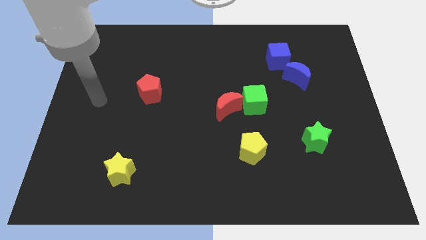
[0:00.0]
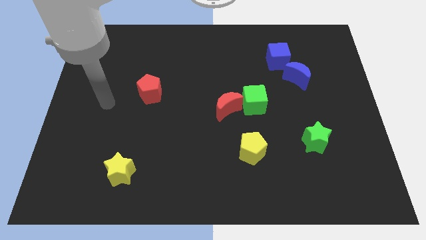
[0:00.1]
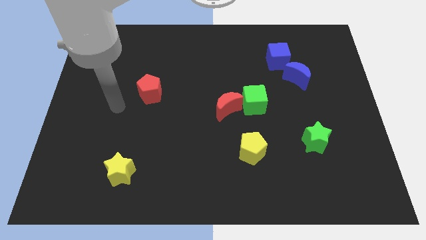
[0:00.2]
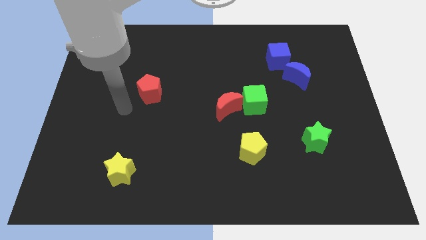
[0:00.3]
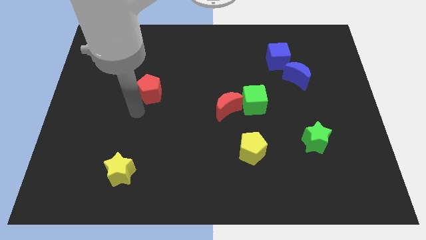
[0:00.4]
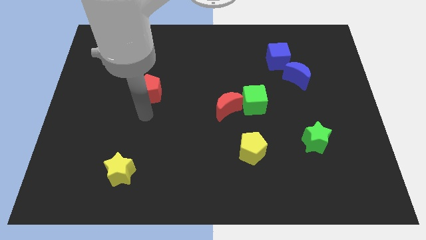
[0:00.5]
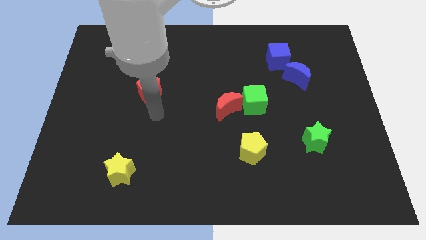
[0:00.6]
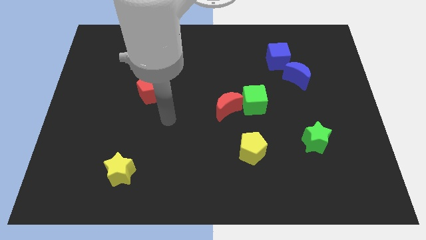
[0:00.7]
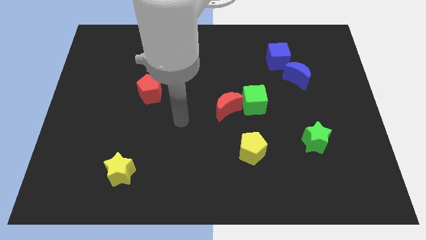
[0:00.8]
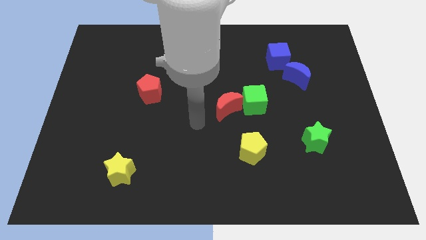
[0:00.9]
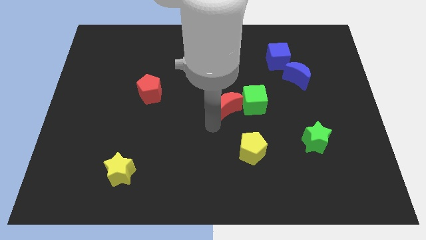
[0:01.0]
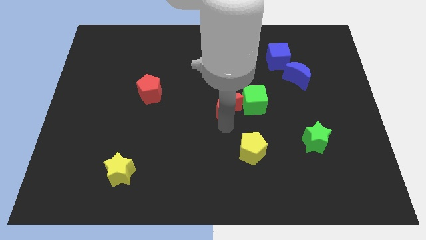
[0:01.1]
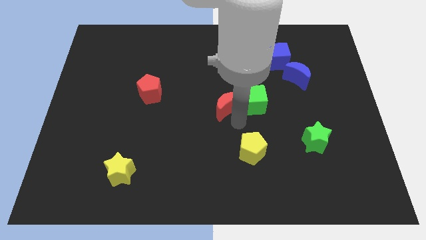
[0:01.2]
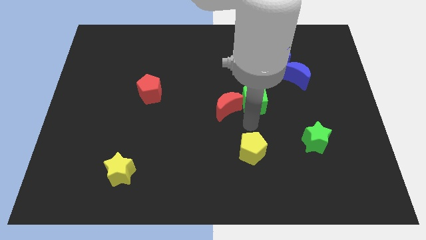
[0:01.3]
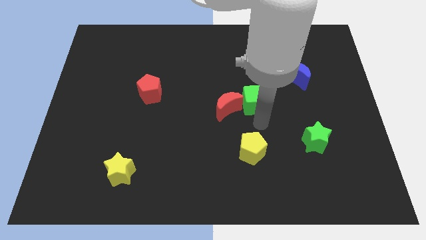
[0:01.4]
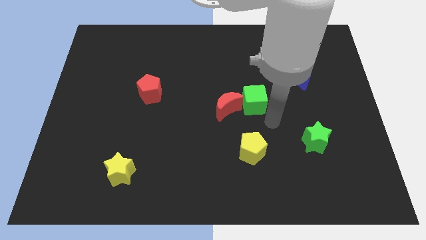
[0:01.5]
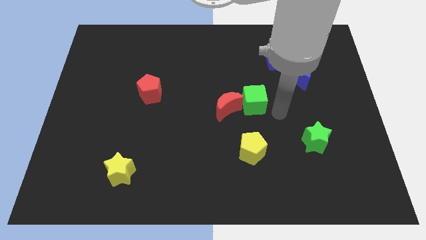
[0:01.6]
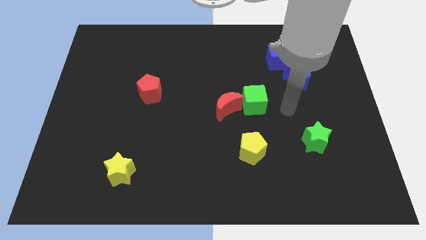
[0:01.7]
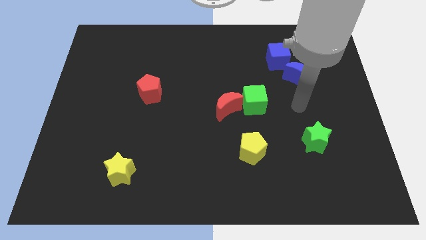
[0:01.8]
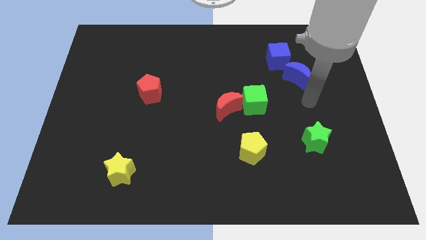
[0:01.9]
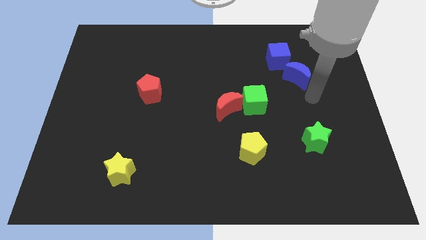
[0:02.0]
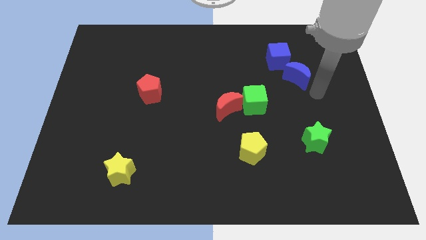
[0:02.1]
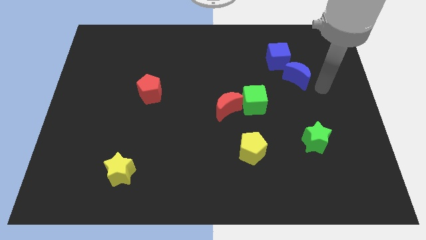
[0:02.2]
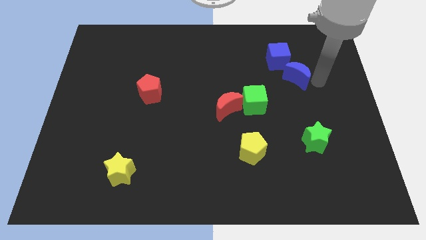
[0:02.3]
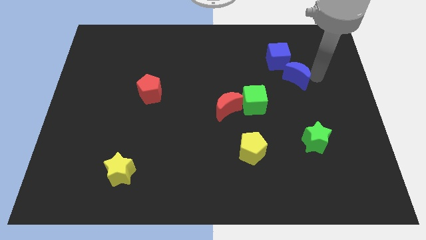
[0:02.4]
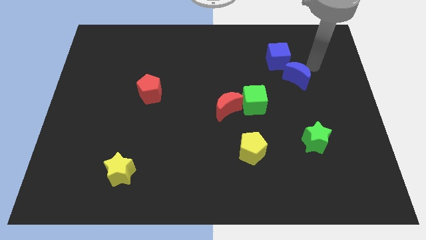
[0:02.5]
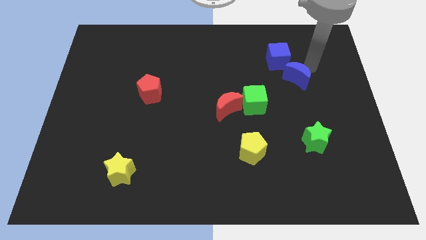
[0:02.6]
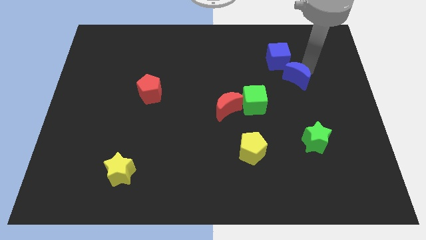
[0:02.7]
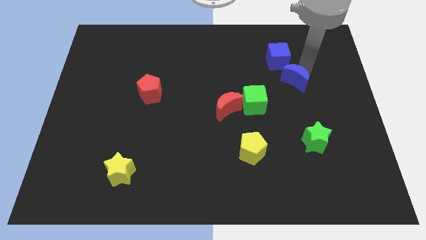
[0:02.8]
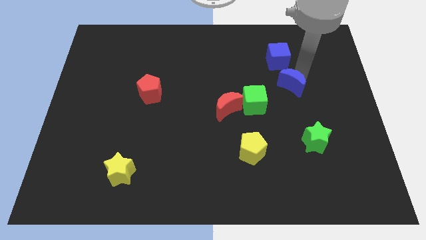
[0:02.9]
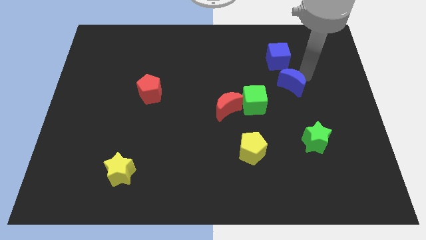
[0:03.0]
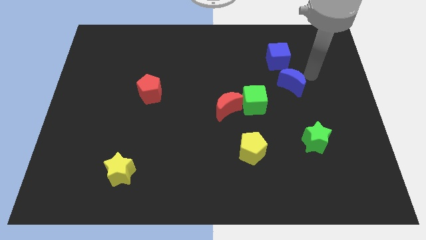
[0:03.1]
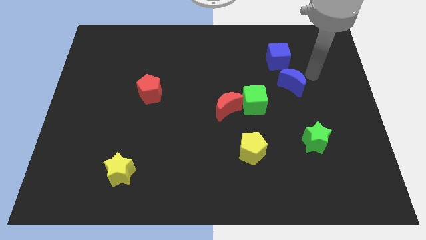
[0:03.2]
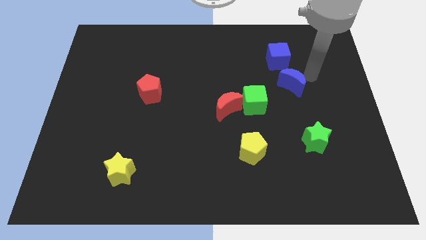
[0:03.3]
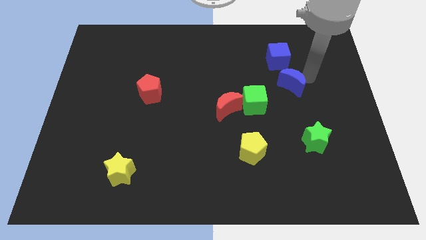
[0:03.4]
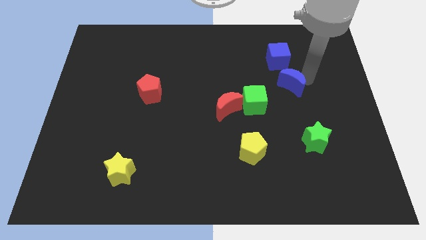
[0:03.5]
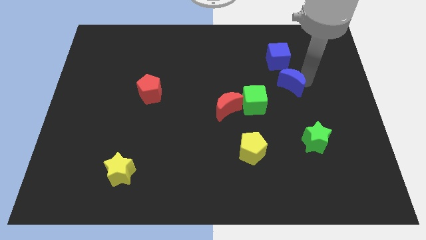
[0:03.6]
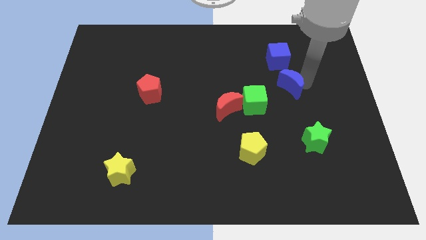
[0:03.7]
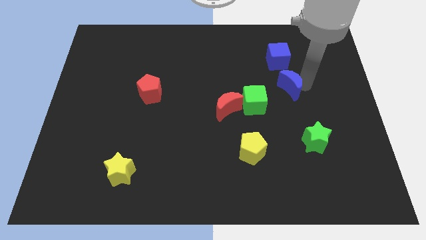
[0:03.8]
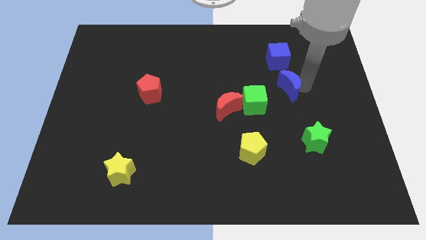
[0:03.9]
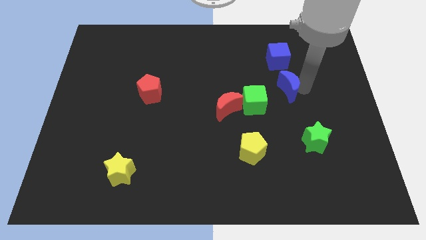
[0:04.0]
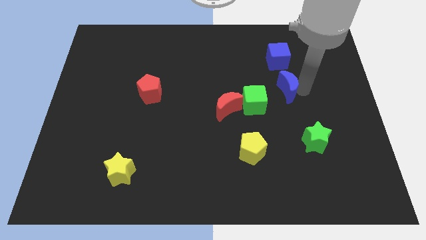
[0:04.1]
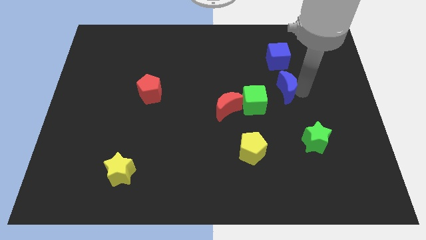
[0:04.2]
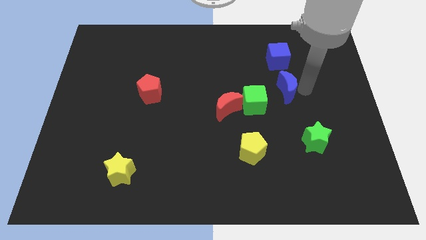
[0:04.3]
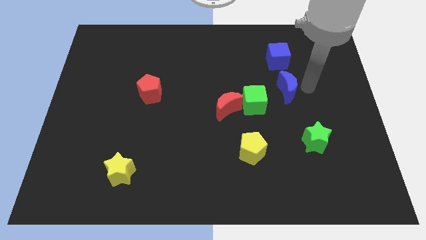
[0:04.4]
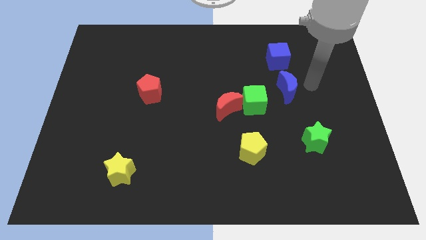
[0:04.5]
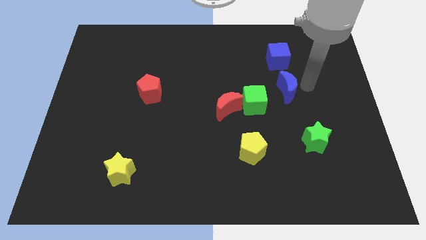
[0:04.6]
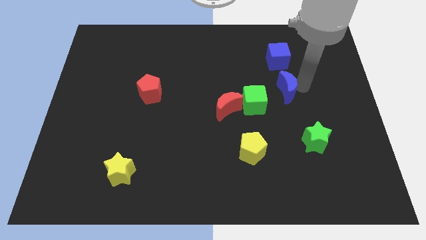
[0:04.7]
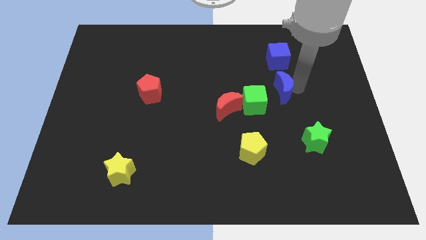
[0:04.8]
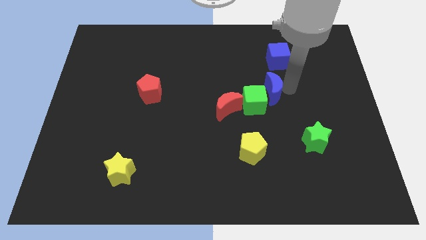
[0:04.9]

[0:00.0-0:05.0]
slide the blue moon close to the green cube

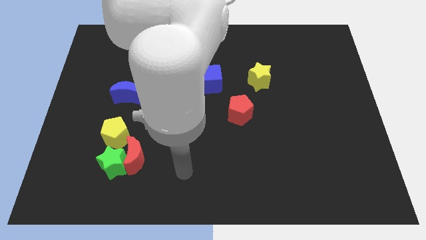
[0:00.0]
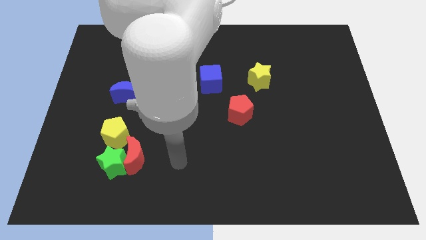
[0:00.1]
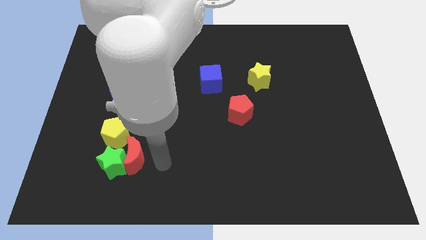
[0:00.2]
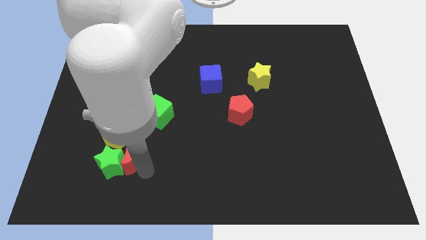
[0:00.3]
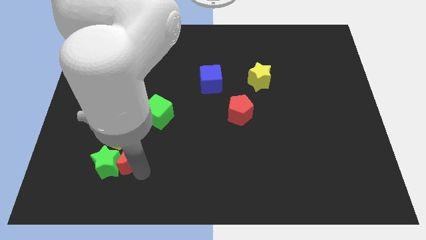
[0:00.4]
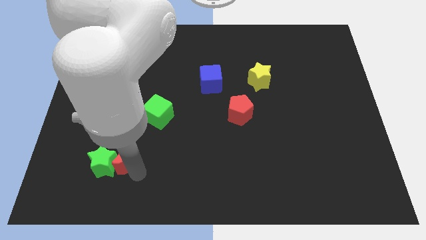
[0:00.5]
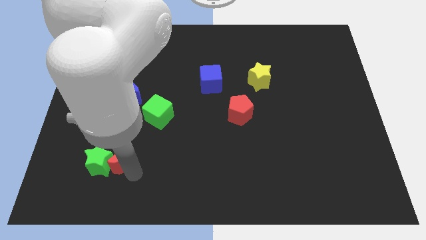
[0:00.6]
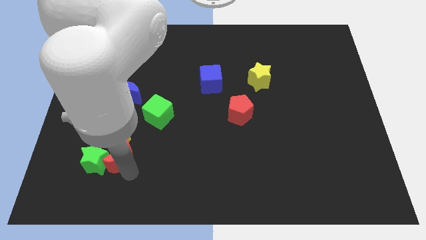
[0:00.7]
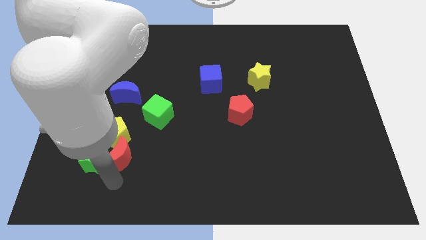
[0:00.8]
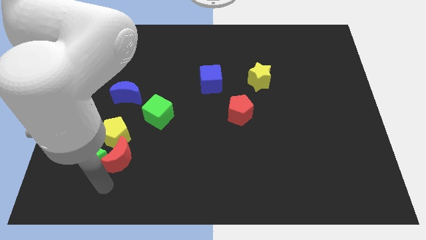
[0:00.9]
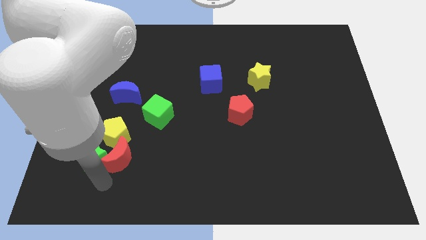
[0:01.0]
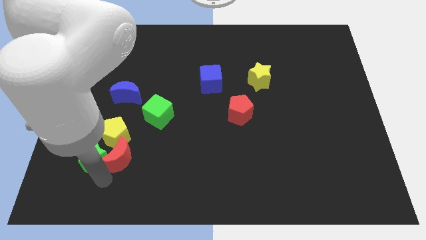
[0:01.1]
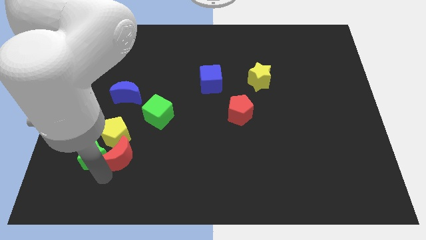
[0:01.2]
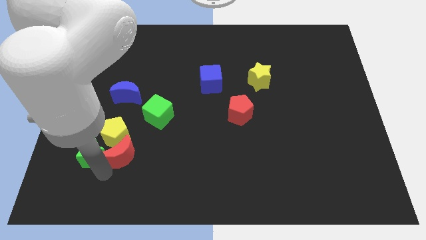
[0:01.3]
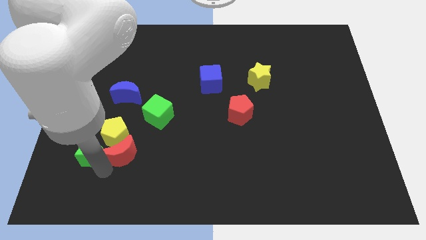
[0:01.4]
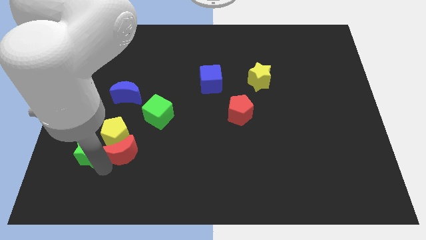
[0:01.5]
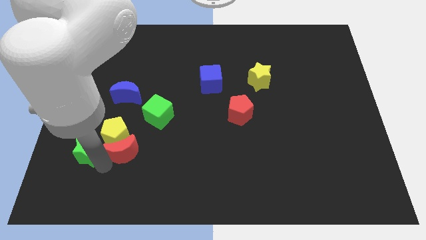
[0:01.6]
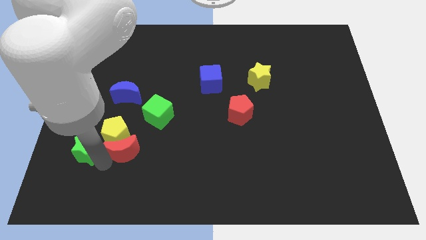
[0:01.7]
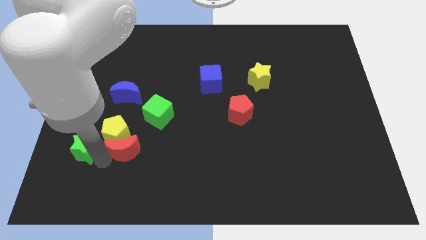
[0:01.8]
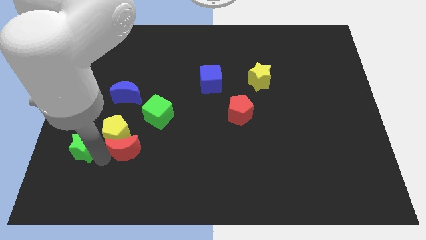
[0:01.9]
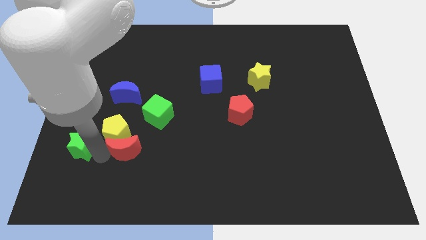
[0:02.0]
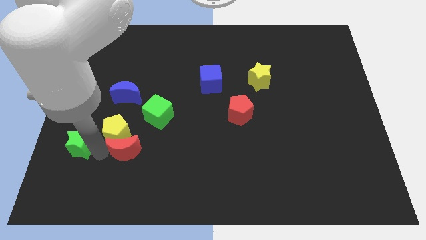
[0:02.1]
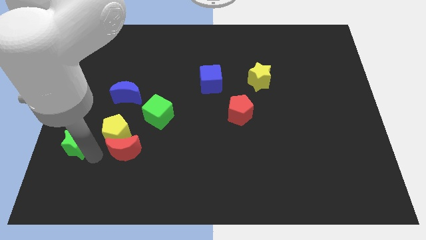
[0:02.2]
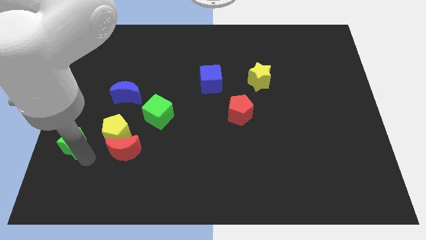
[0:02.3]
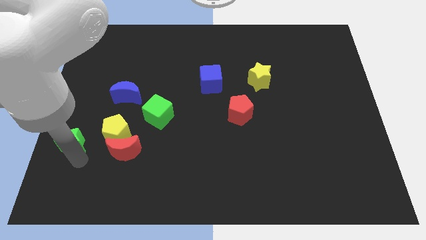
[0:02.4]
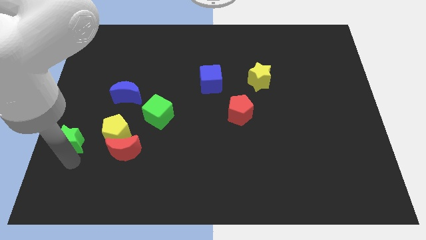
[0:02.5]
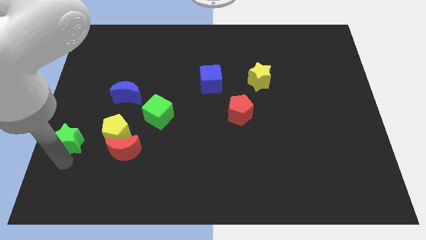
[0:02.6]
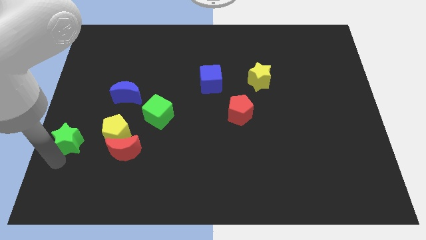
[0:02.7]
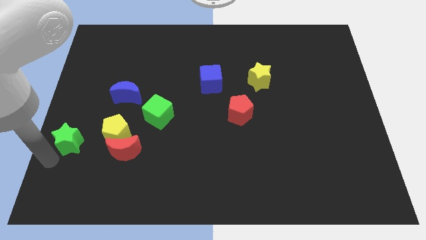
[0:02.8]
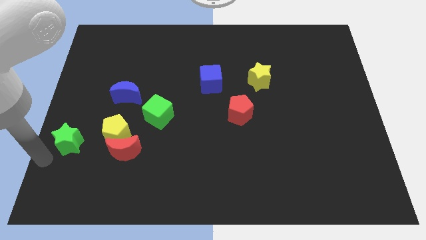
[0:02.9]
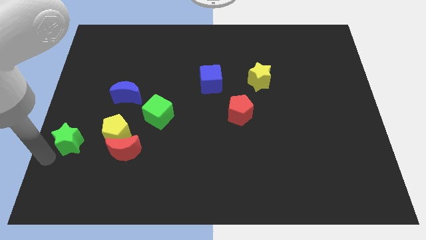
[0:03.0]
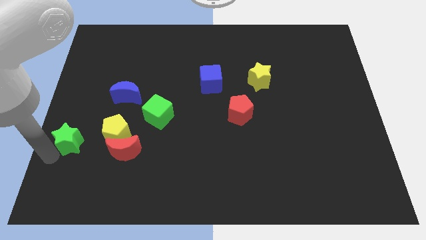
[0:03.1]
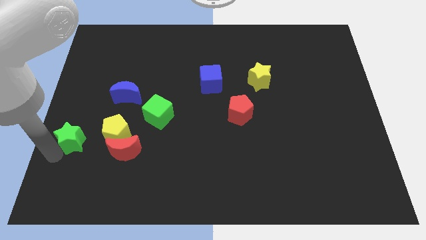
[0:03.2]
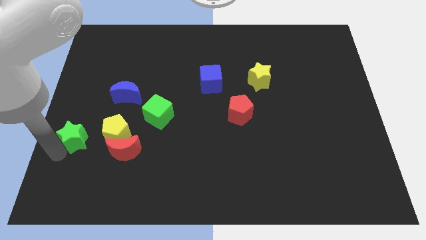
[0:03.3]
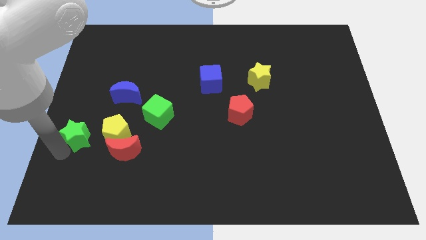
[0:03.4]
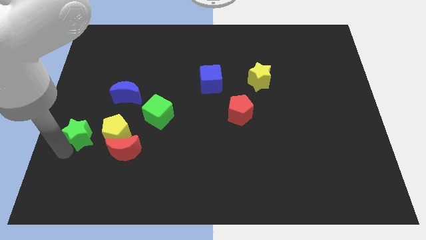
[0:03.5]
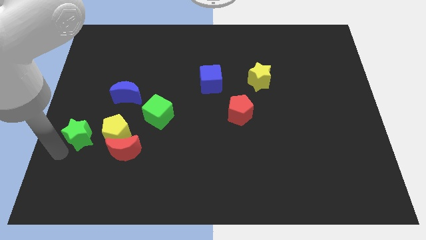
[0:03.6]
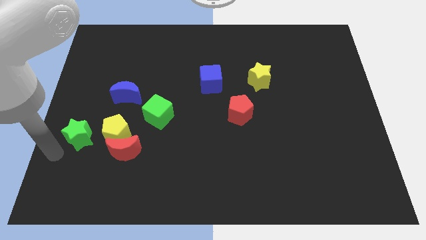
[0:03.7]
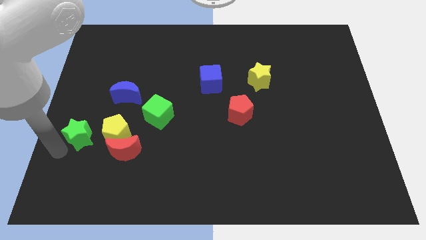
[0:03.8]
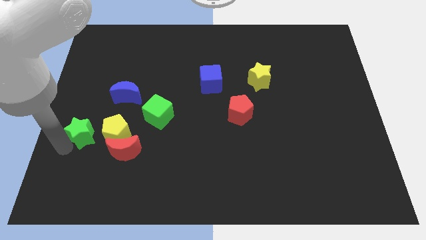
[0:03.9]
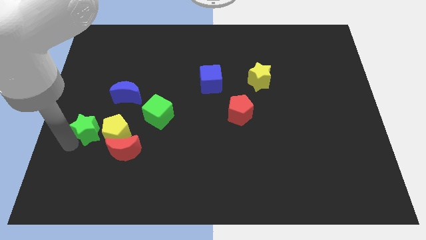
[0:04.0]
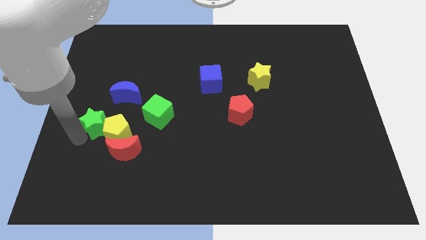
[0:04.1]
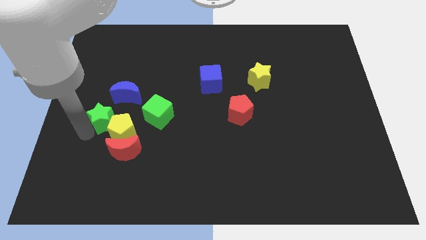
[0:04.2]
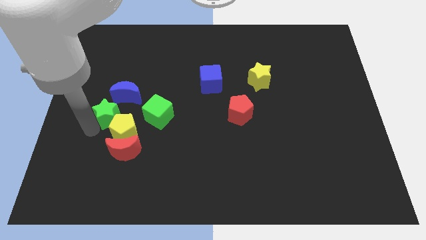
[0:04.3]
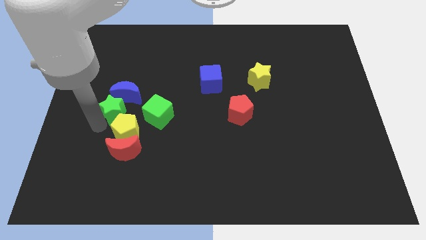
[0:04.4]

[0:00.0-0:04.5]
slide the green star towards the blue moon
